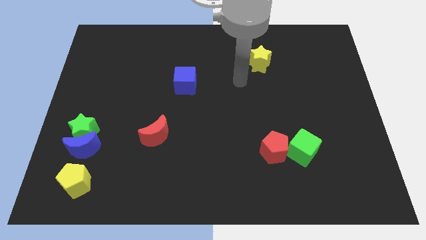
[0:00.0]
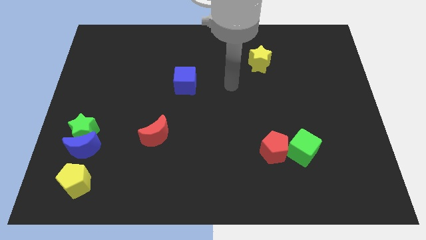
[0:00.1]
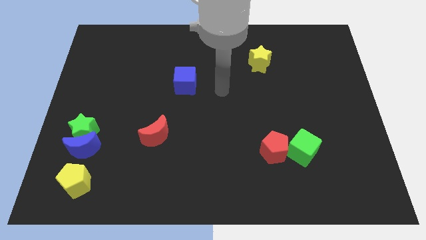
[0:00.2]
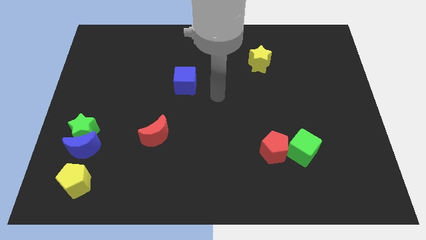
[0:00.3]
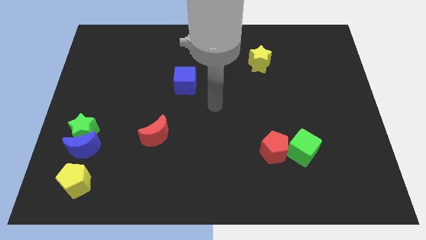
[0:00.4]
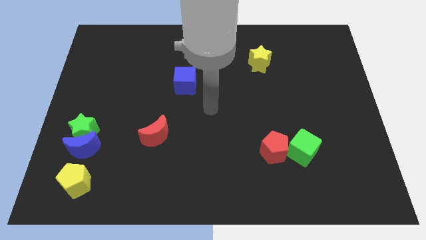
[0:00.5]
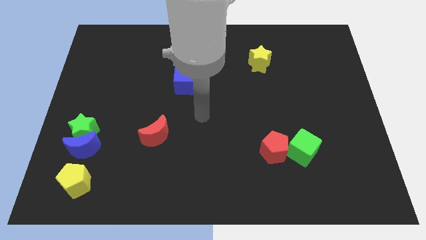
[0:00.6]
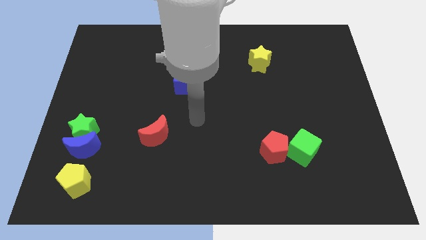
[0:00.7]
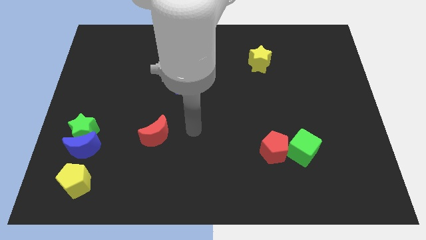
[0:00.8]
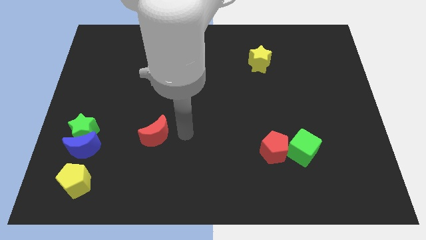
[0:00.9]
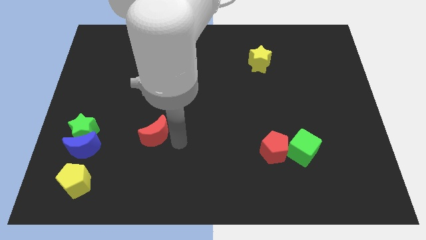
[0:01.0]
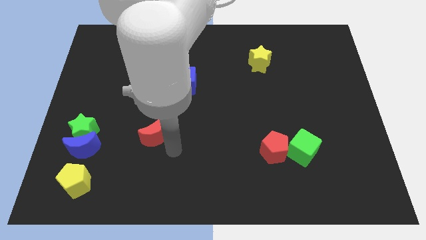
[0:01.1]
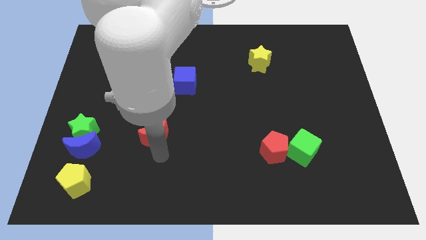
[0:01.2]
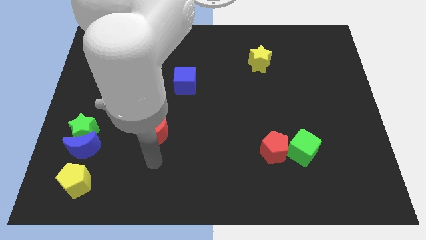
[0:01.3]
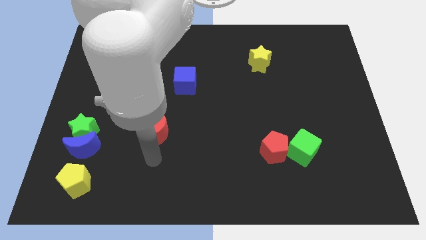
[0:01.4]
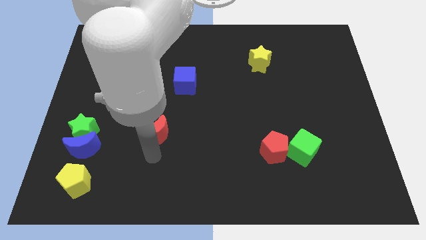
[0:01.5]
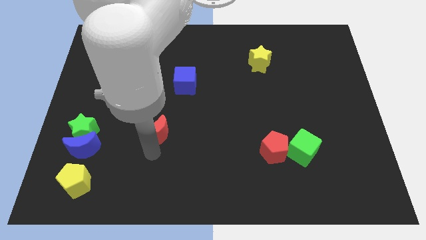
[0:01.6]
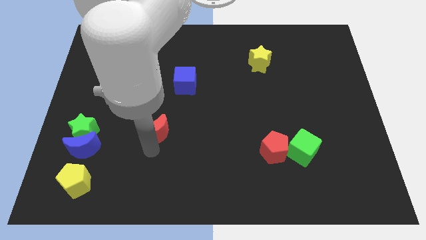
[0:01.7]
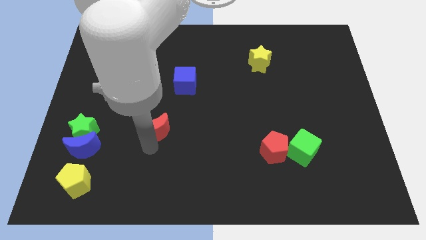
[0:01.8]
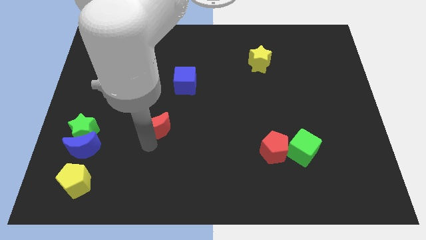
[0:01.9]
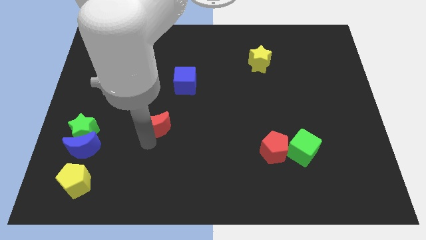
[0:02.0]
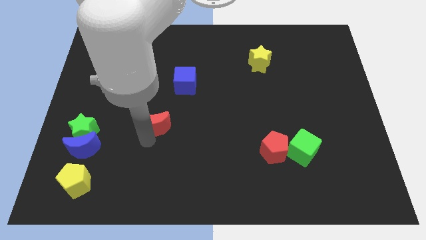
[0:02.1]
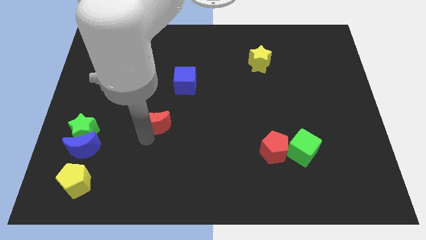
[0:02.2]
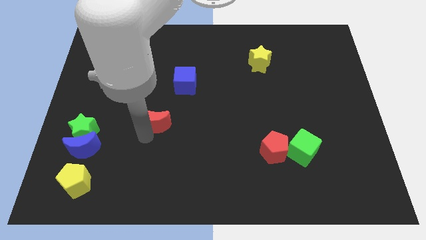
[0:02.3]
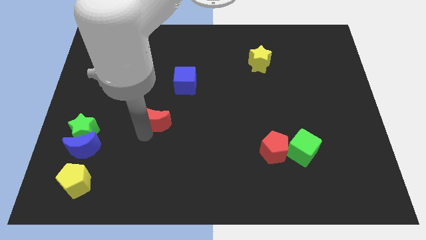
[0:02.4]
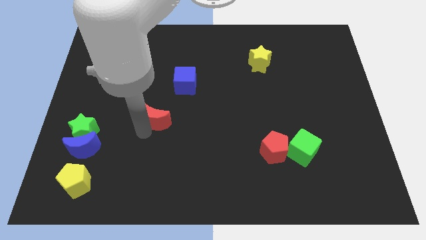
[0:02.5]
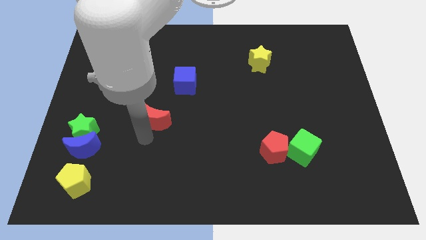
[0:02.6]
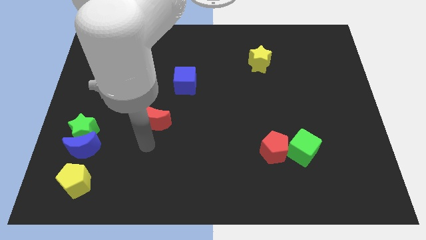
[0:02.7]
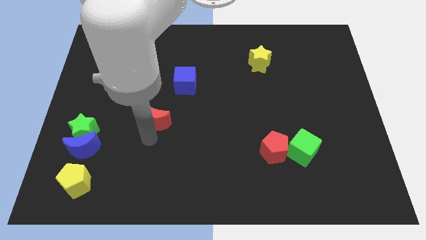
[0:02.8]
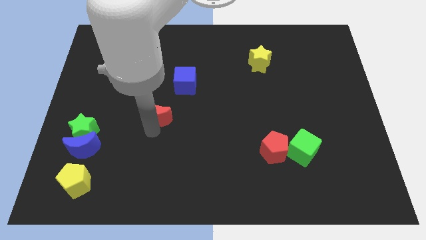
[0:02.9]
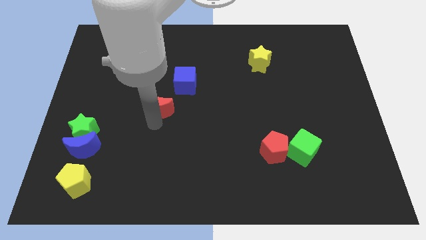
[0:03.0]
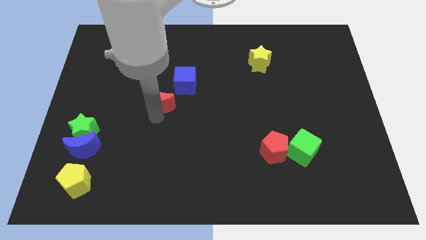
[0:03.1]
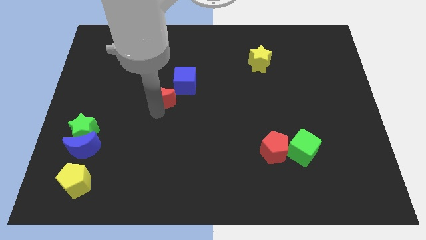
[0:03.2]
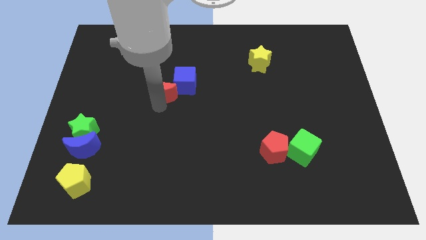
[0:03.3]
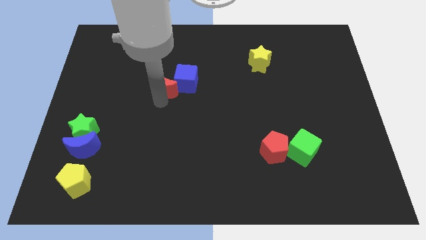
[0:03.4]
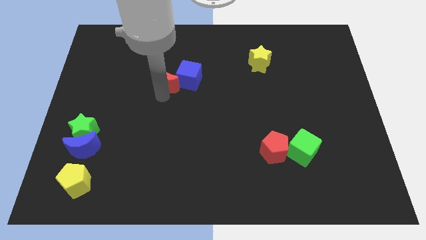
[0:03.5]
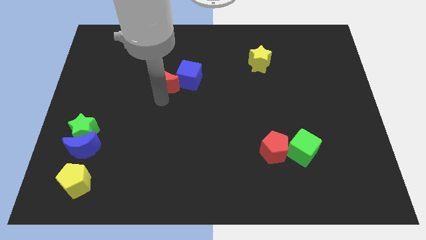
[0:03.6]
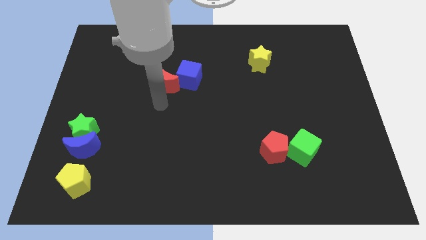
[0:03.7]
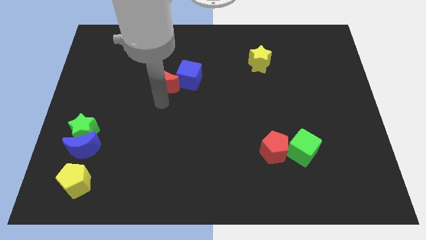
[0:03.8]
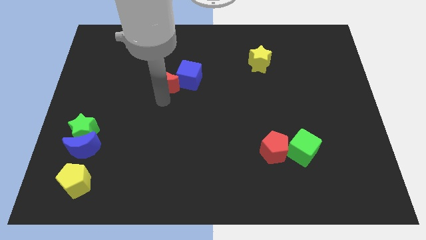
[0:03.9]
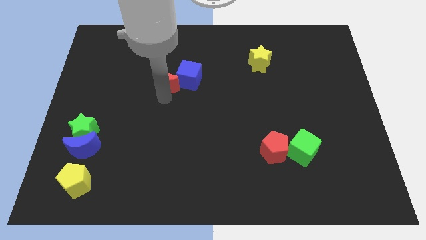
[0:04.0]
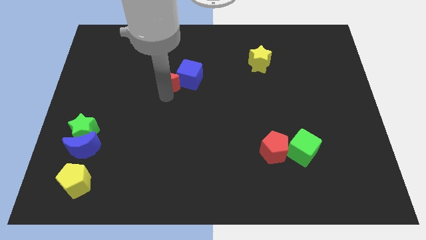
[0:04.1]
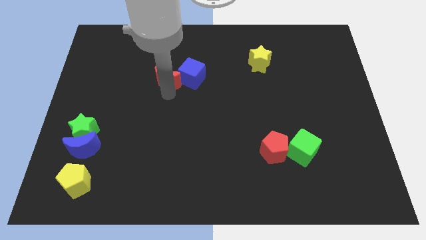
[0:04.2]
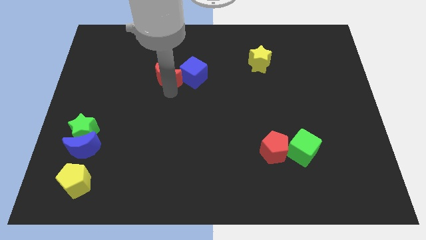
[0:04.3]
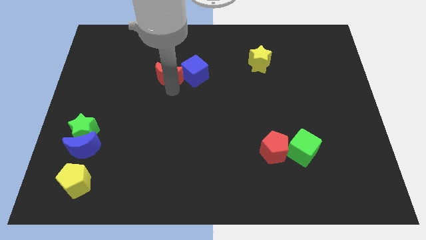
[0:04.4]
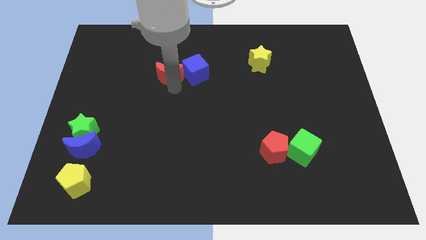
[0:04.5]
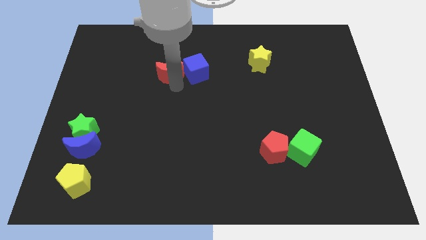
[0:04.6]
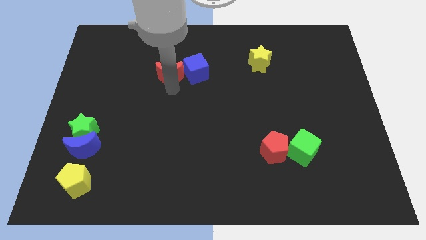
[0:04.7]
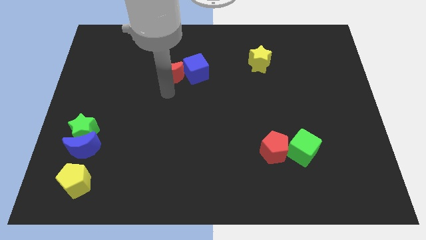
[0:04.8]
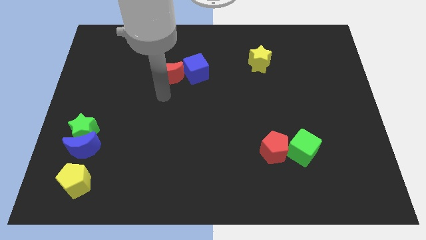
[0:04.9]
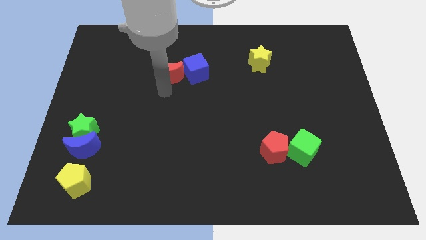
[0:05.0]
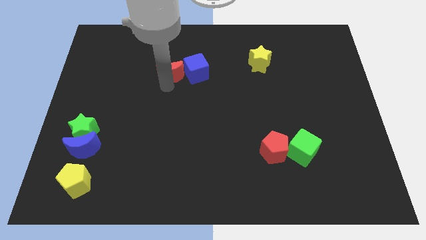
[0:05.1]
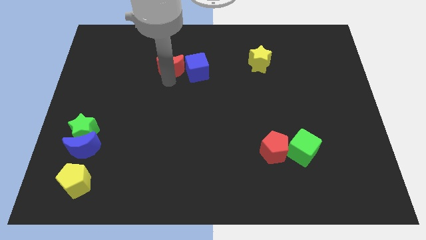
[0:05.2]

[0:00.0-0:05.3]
move the red moon to the top left side of the blue cube

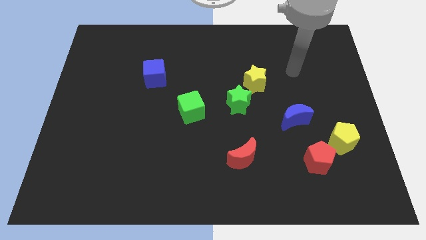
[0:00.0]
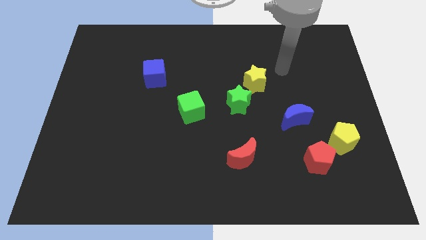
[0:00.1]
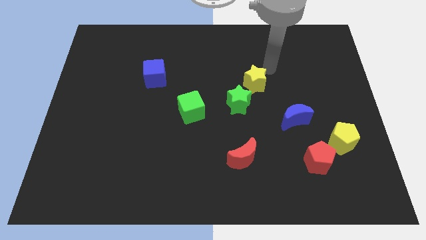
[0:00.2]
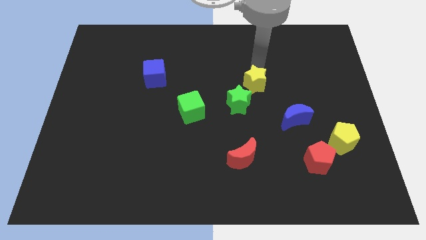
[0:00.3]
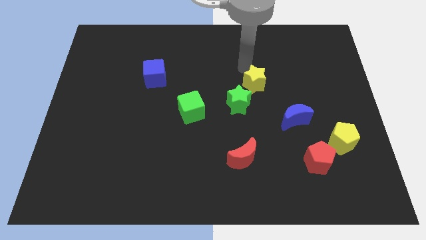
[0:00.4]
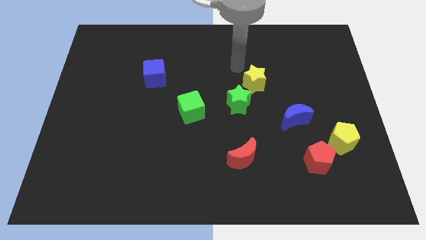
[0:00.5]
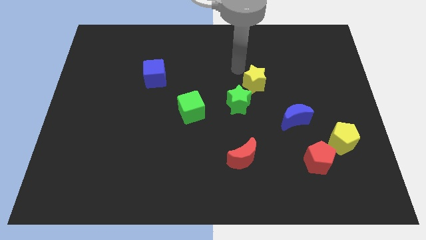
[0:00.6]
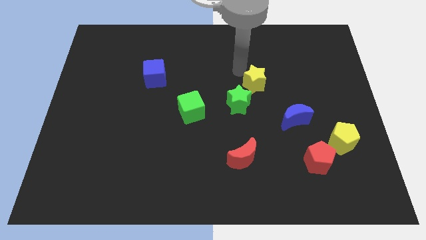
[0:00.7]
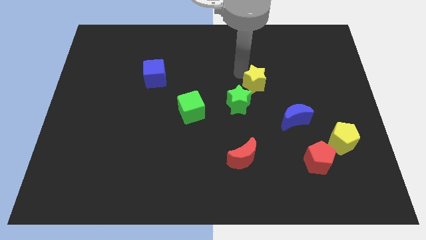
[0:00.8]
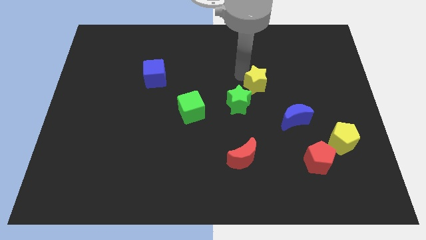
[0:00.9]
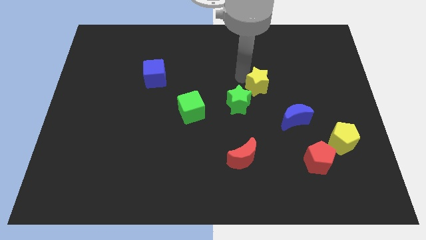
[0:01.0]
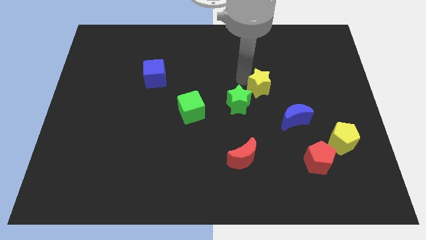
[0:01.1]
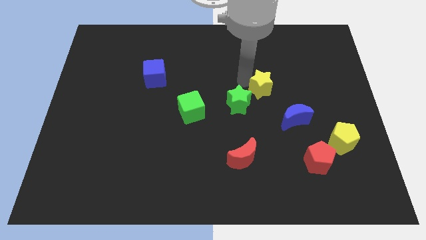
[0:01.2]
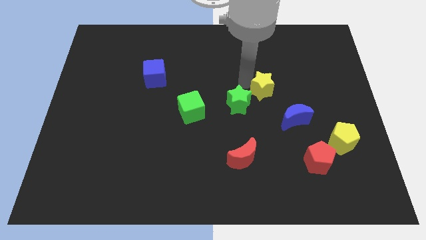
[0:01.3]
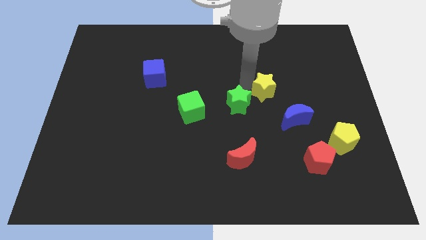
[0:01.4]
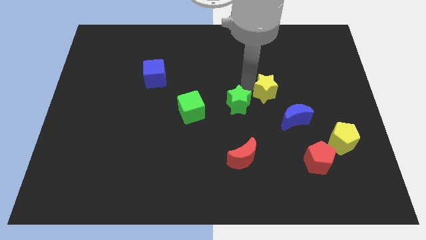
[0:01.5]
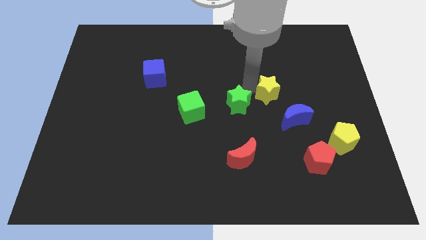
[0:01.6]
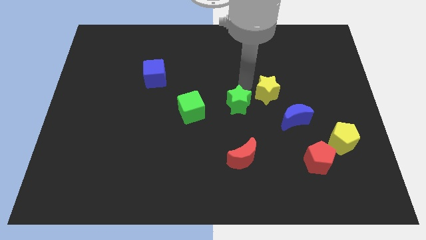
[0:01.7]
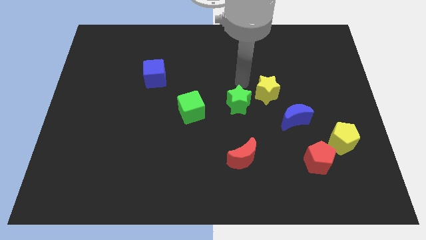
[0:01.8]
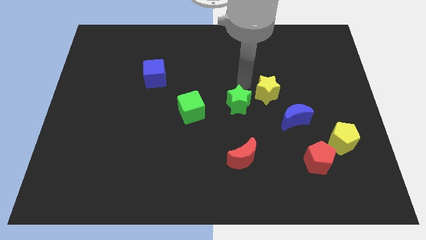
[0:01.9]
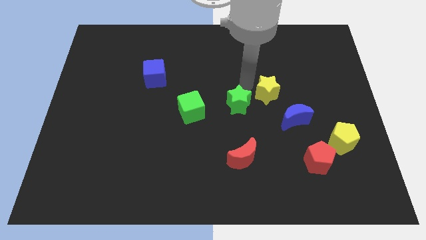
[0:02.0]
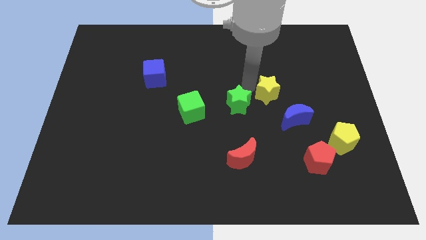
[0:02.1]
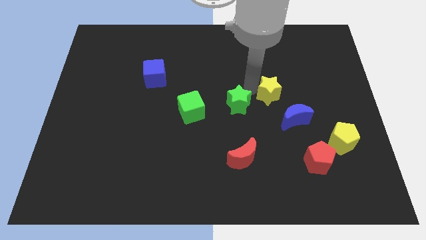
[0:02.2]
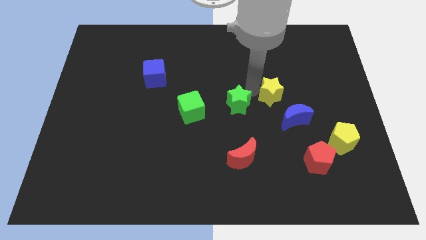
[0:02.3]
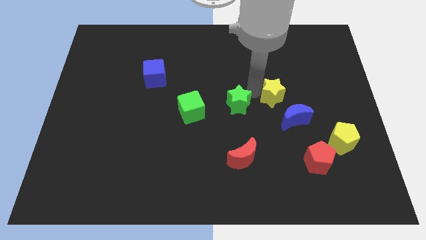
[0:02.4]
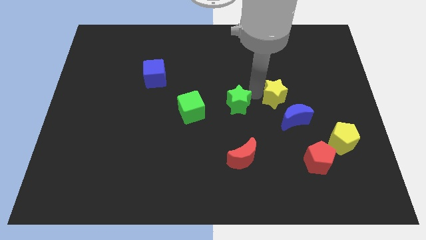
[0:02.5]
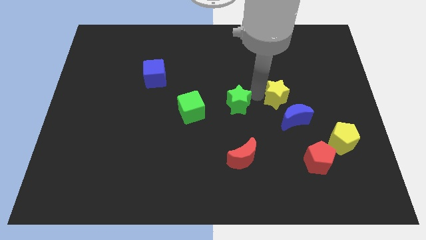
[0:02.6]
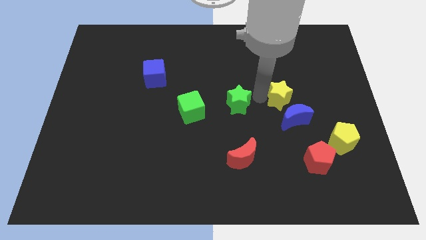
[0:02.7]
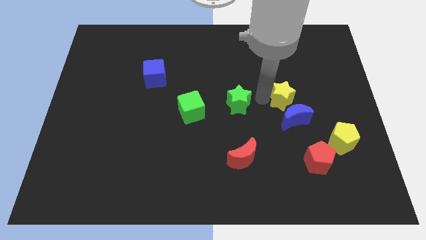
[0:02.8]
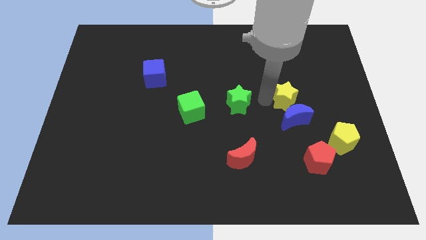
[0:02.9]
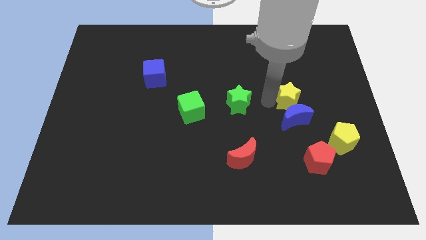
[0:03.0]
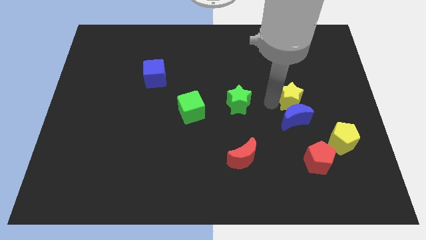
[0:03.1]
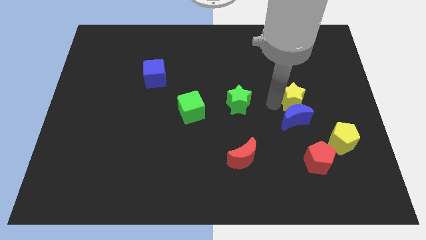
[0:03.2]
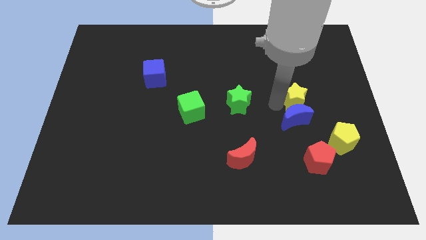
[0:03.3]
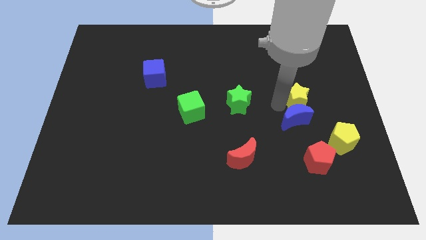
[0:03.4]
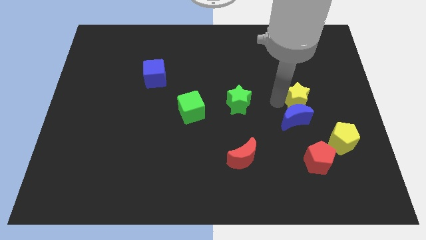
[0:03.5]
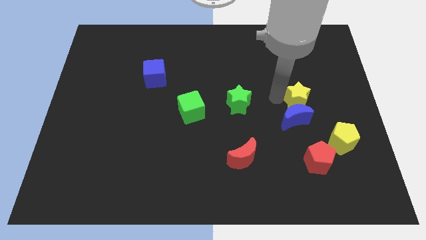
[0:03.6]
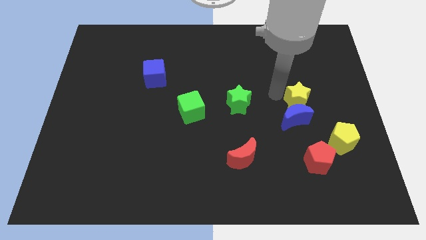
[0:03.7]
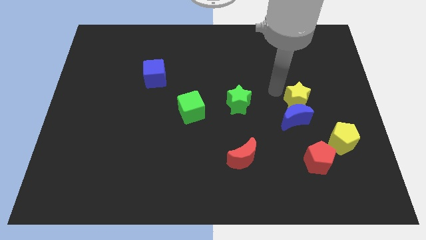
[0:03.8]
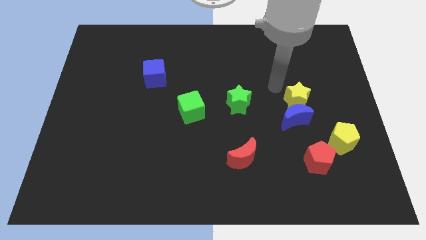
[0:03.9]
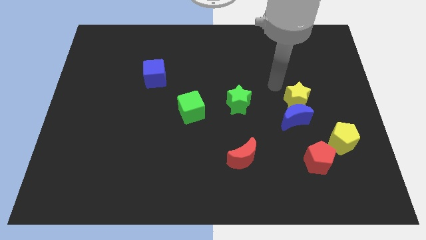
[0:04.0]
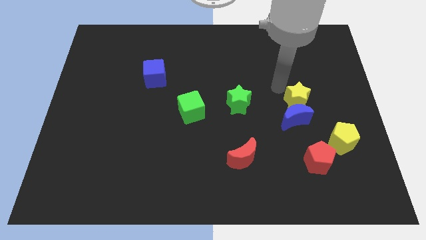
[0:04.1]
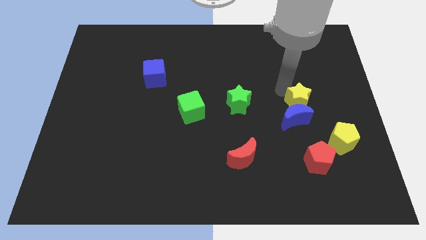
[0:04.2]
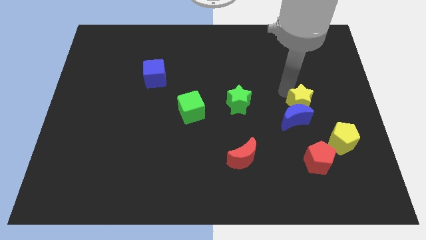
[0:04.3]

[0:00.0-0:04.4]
push the yellow star to the top side of the red pentagon
